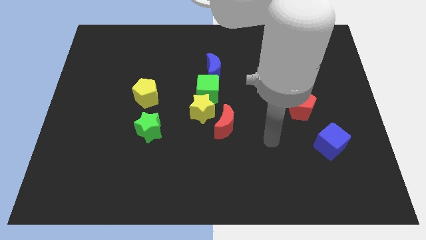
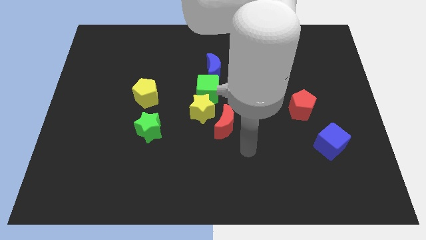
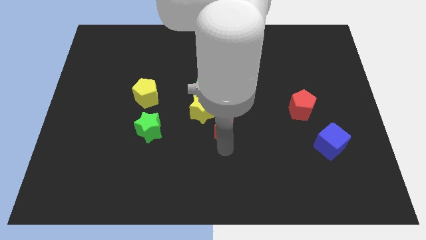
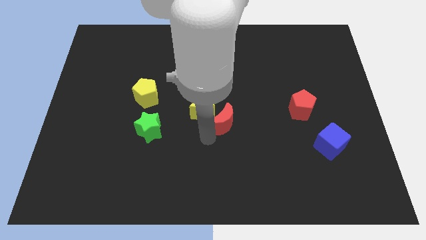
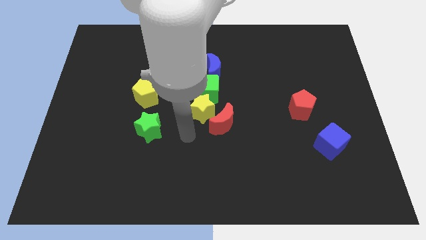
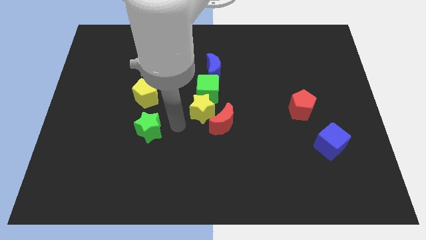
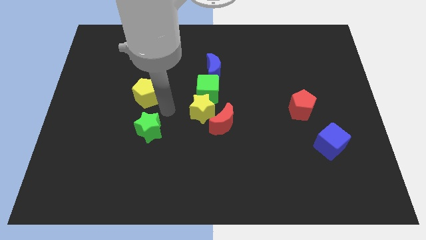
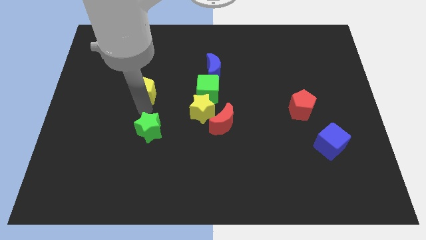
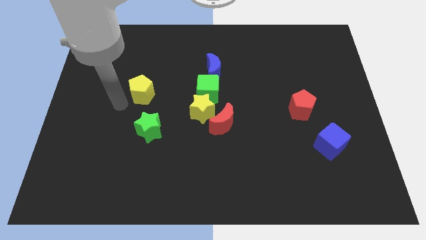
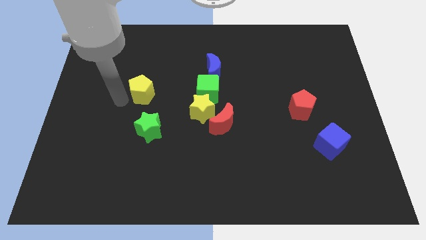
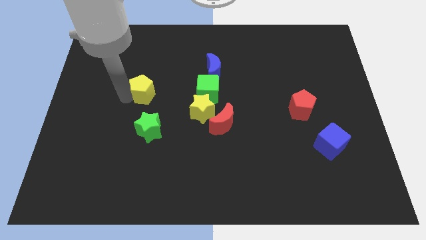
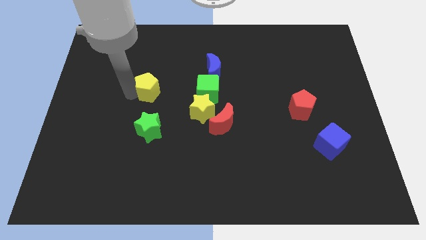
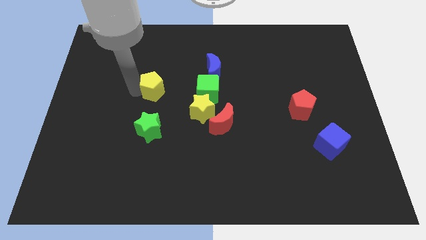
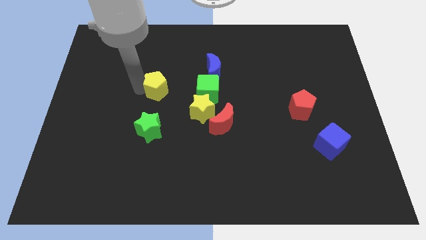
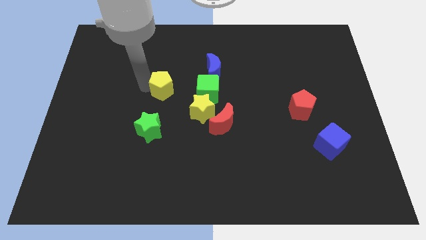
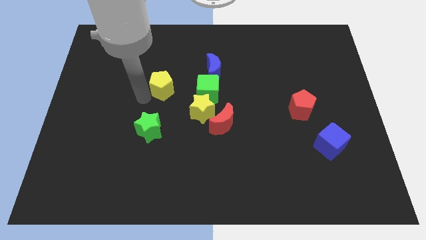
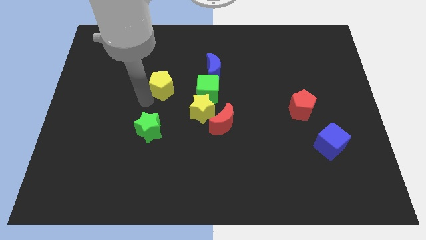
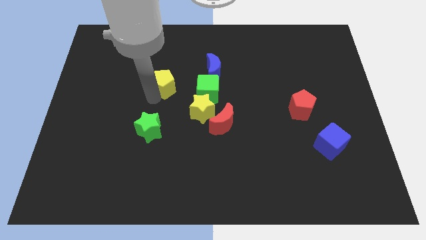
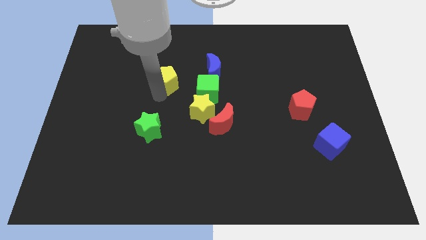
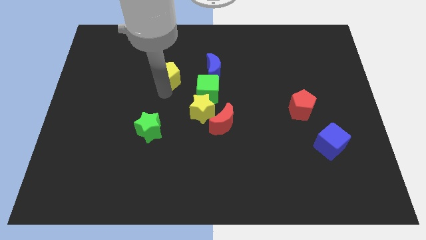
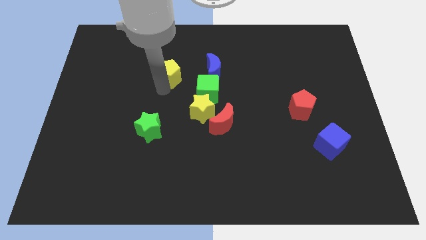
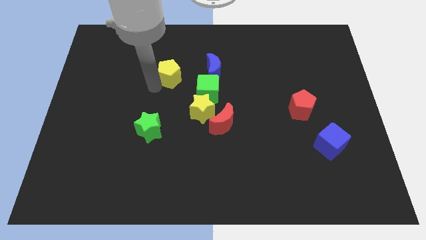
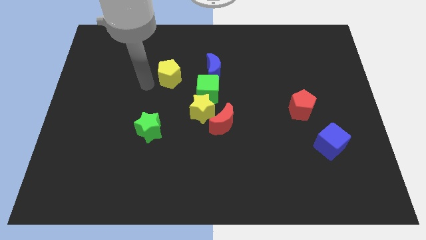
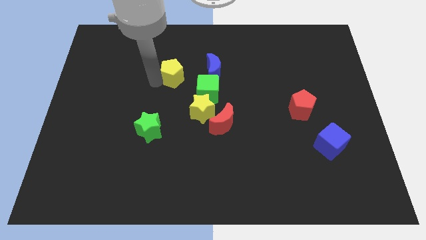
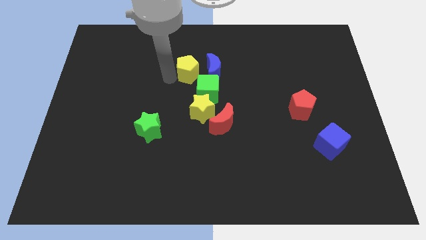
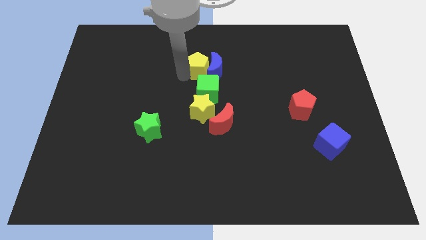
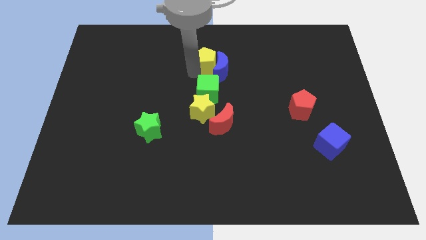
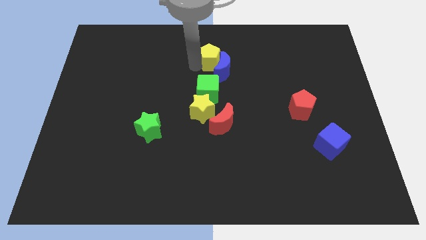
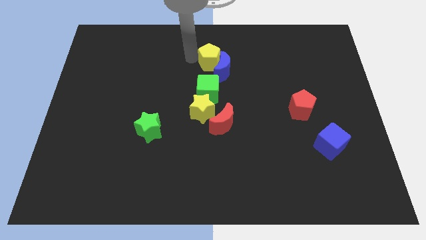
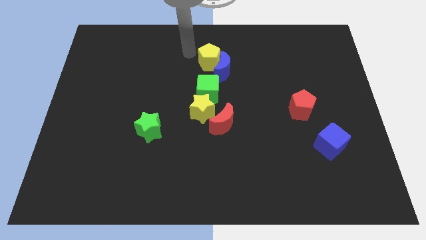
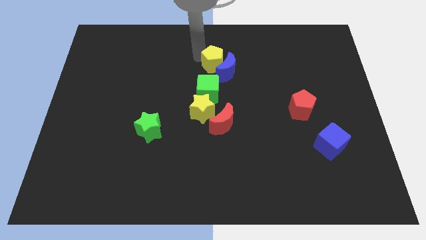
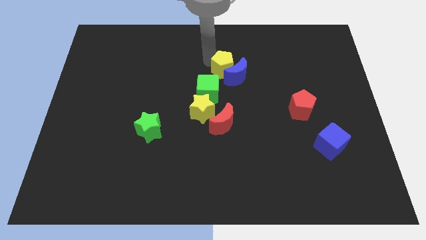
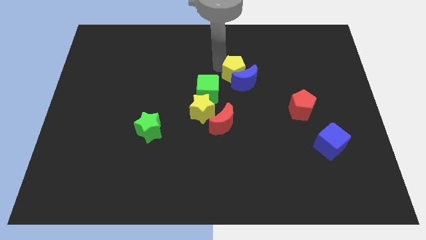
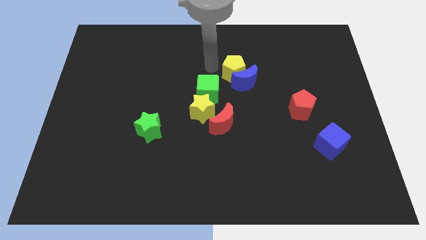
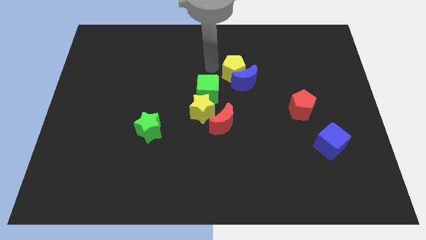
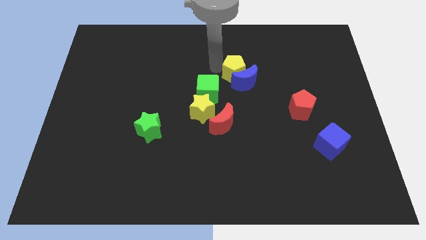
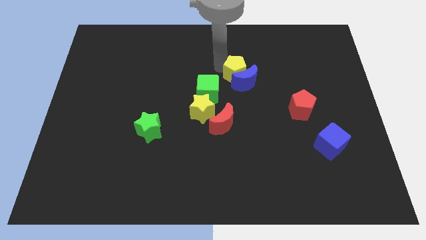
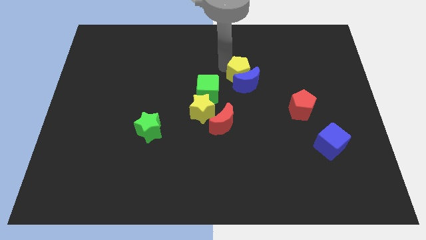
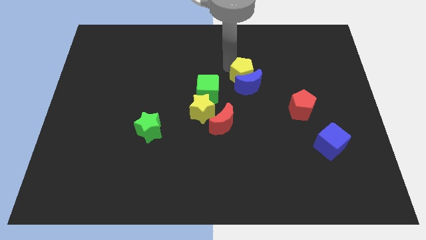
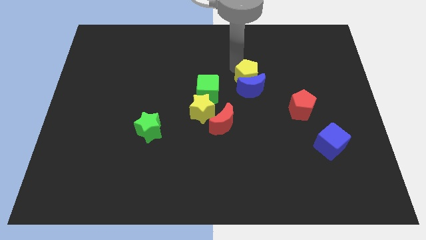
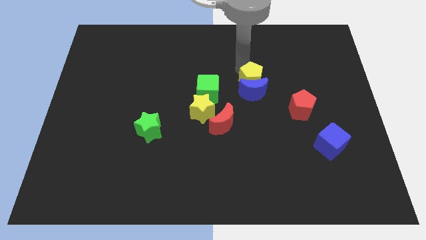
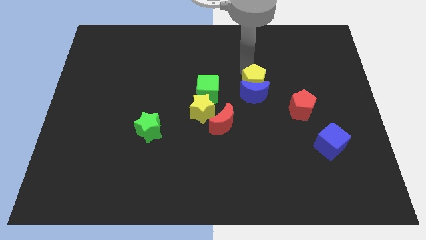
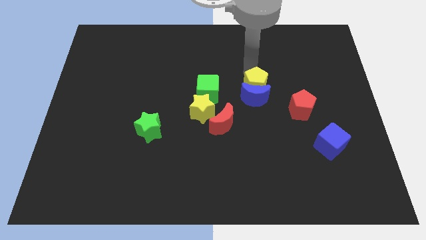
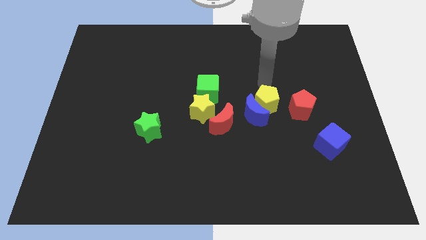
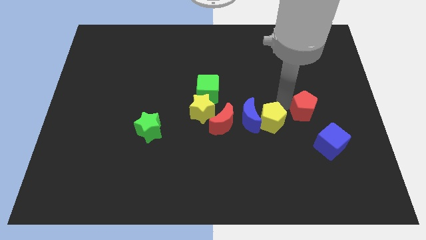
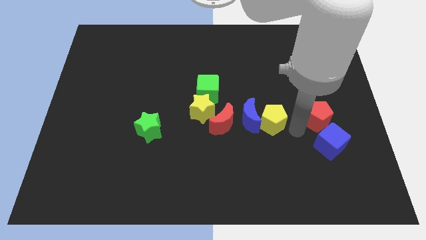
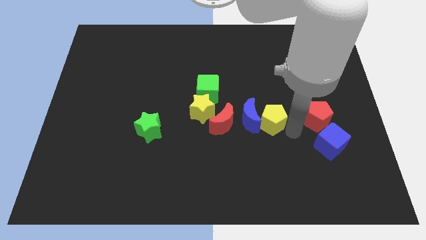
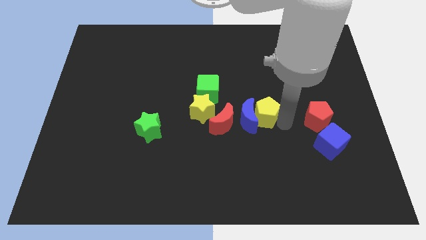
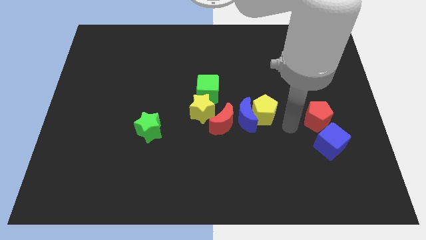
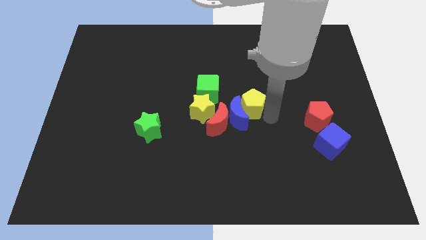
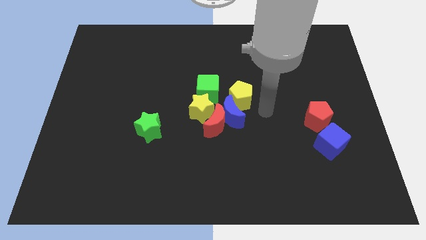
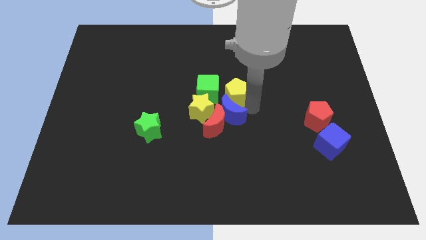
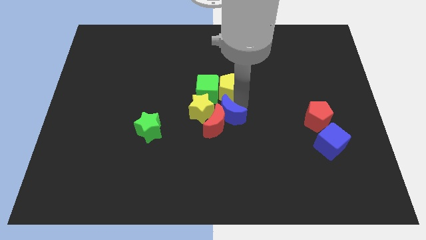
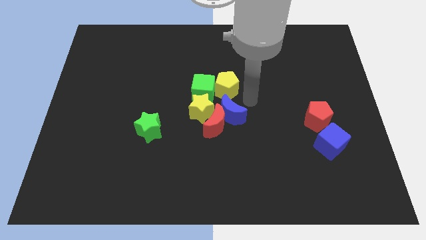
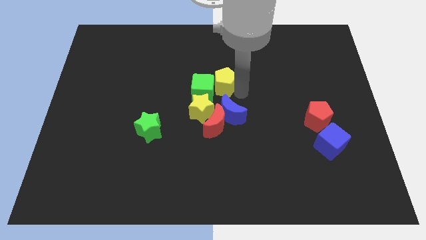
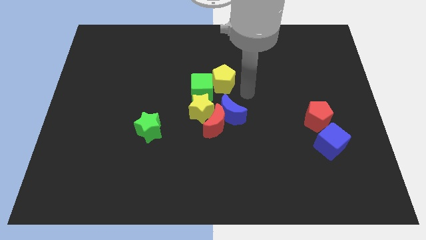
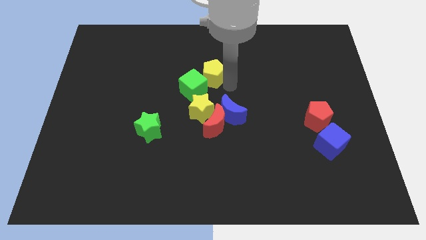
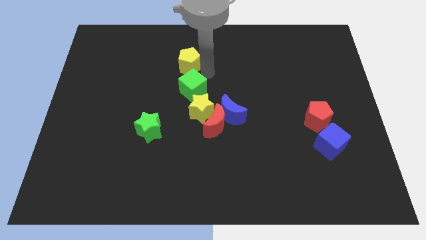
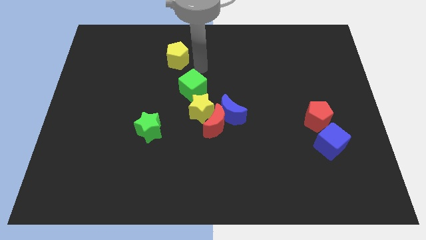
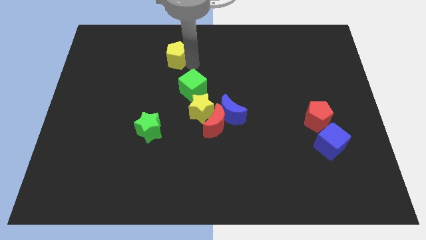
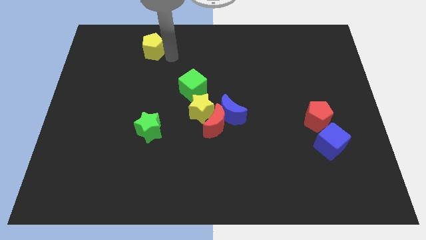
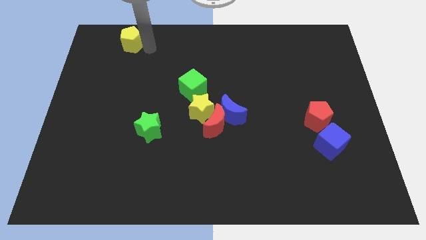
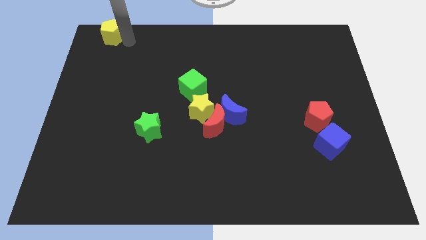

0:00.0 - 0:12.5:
slide the yellow pentagon to the top left corner
